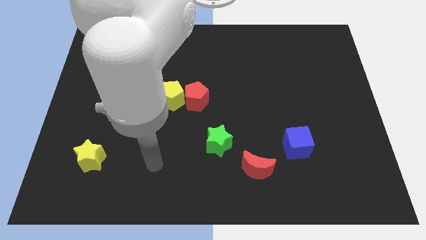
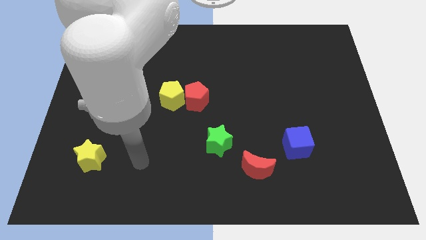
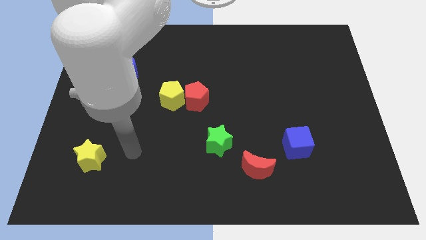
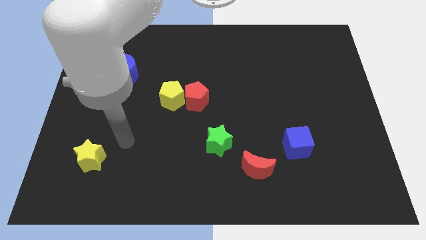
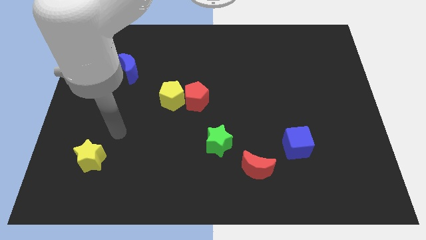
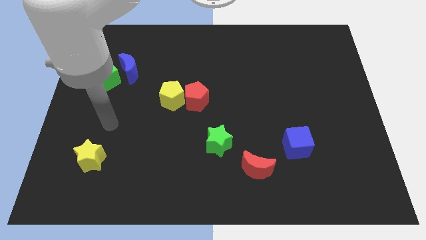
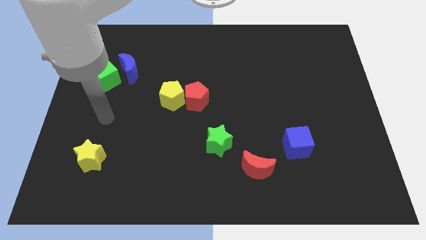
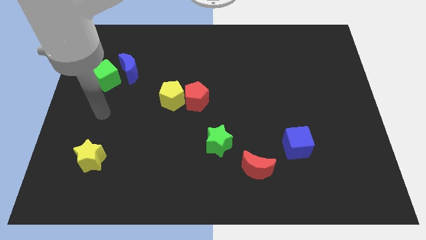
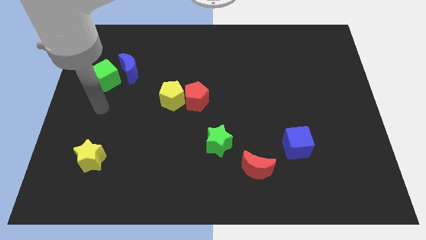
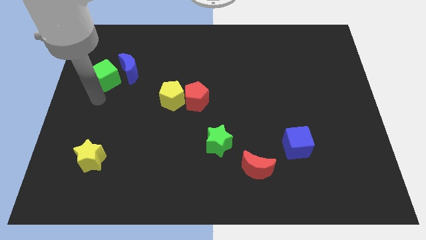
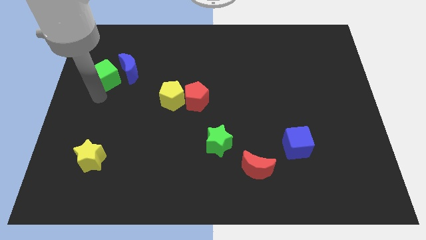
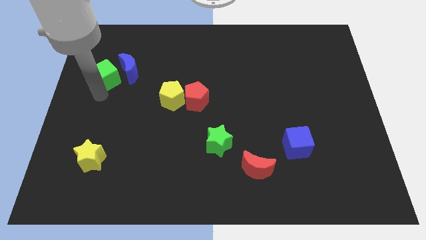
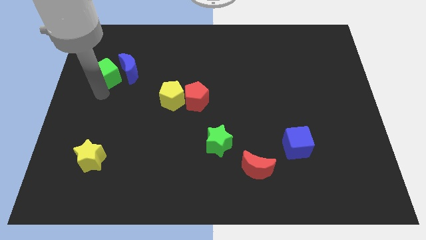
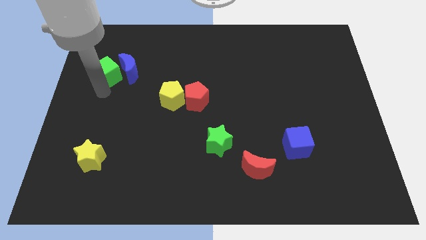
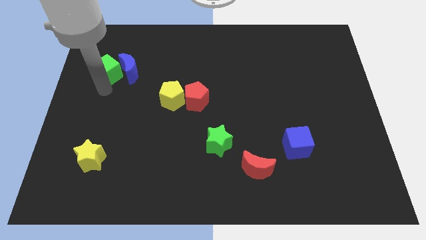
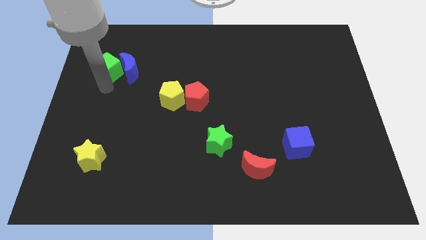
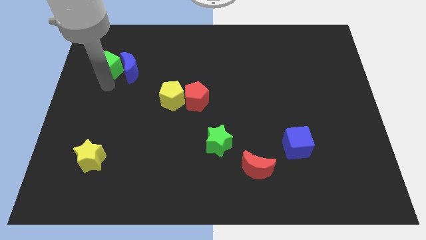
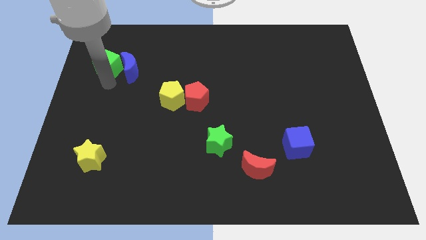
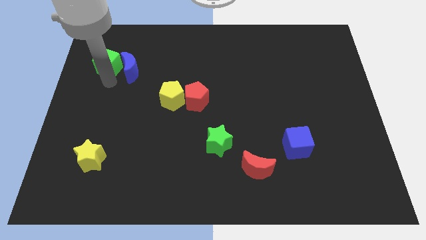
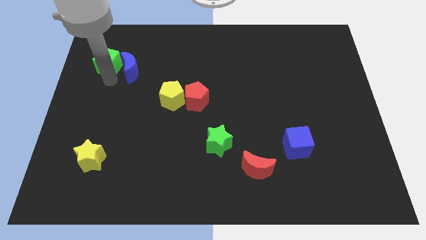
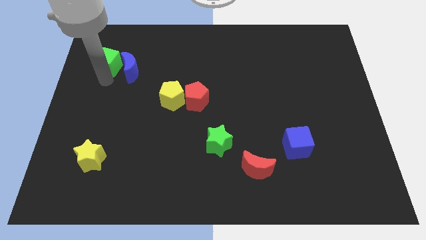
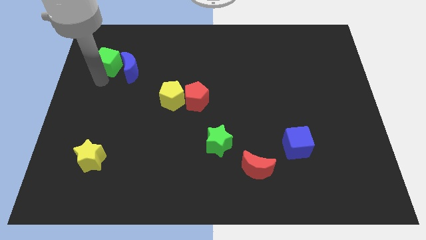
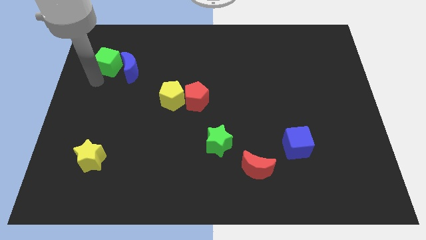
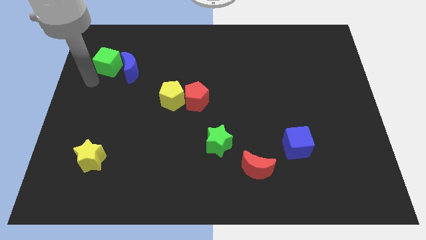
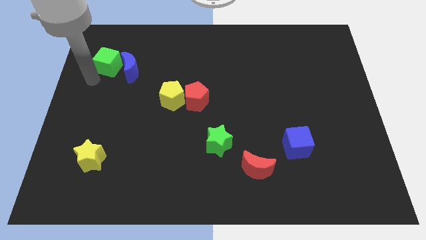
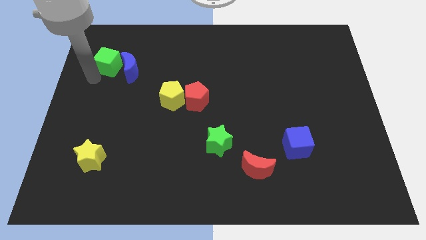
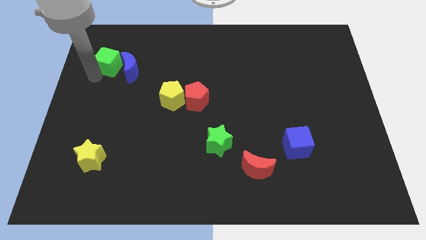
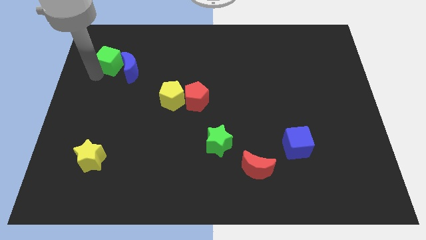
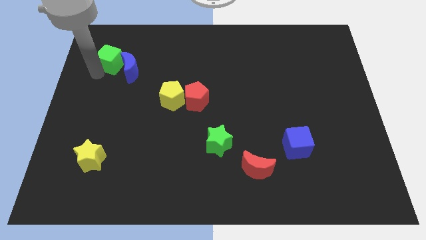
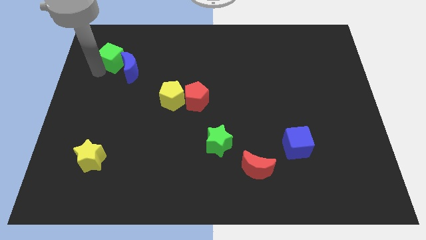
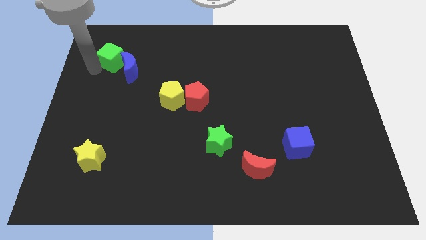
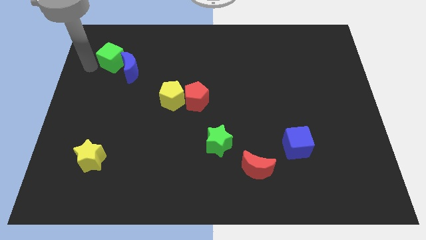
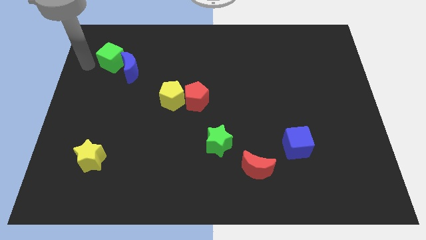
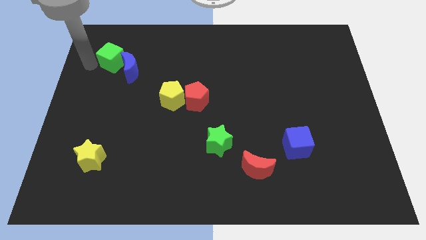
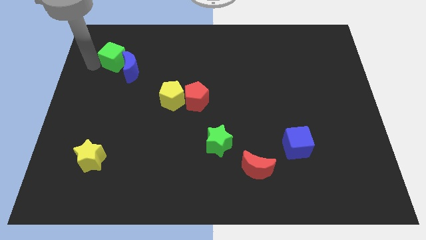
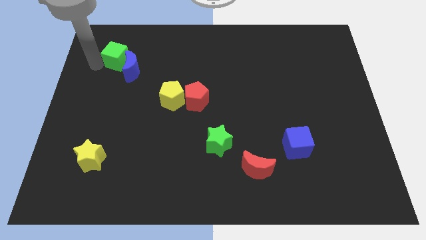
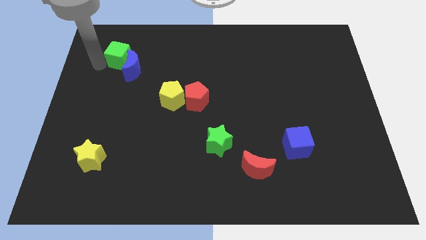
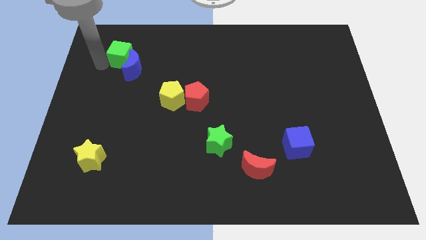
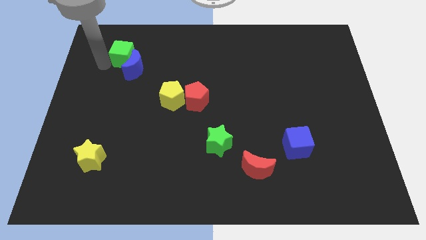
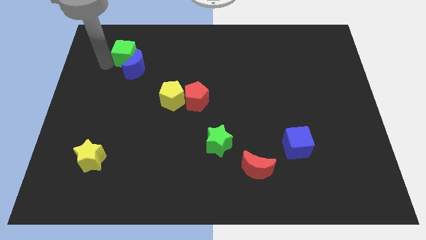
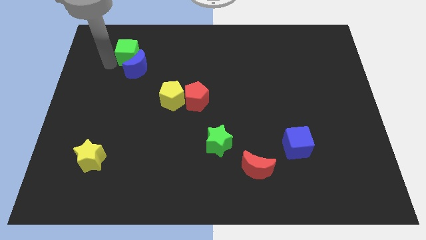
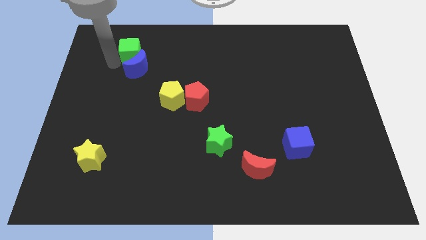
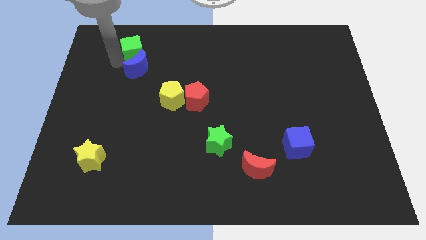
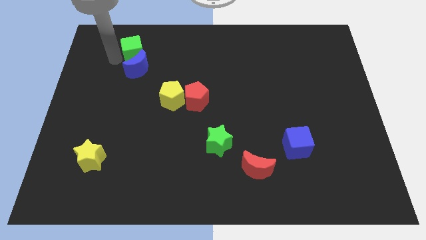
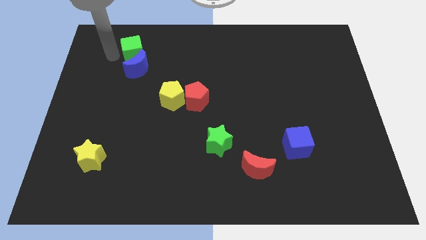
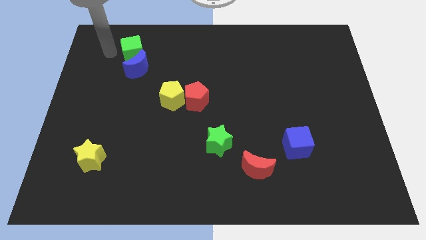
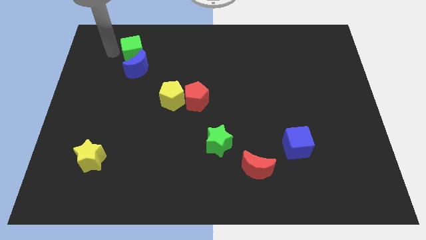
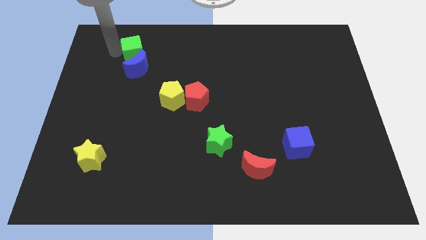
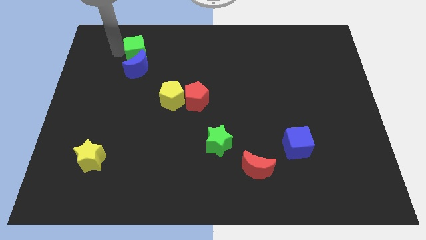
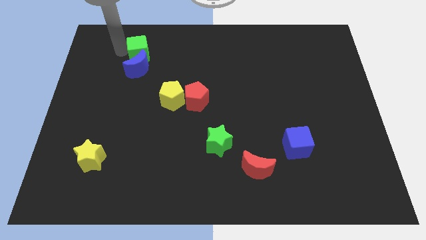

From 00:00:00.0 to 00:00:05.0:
push the green cube to the top right of the blue moon

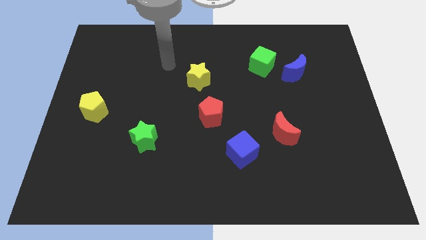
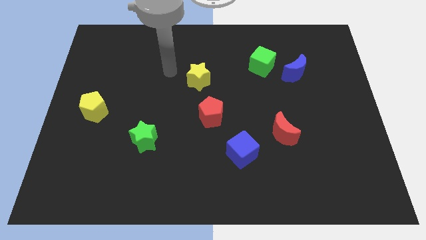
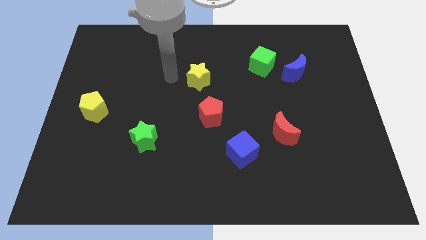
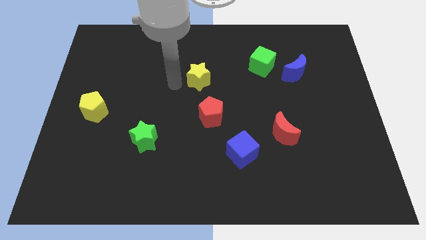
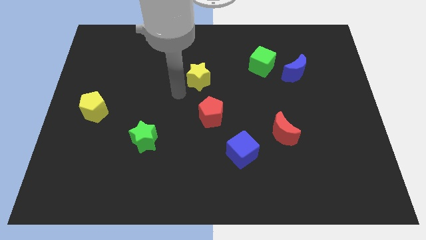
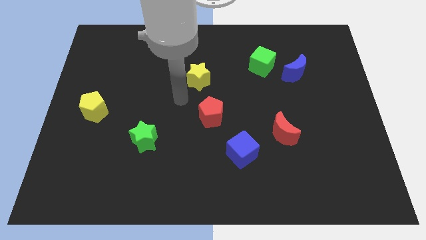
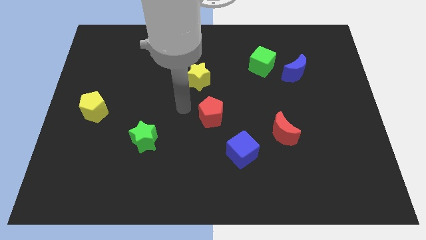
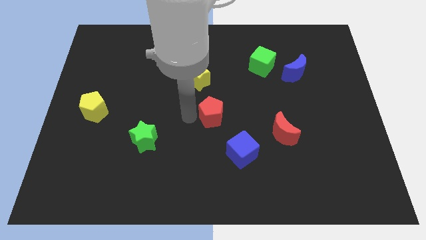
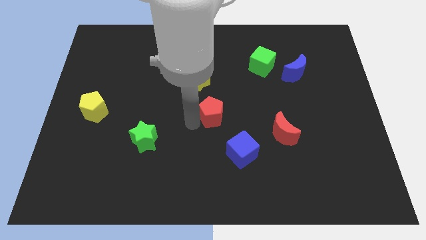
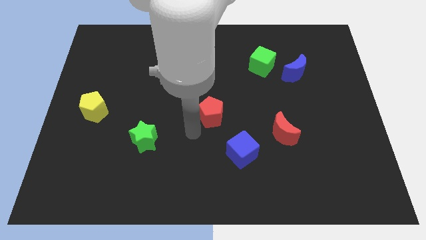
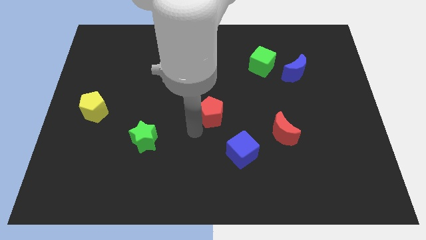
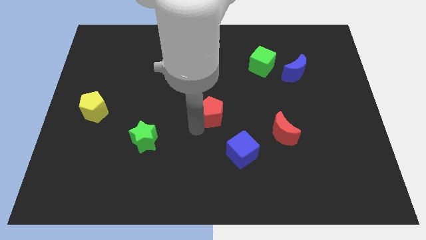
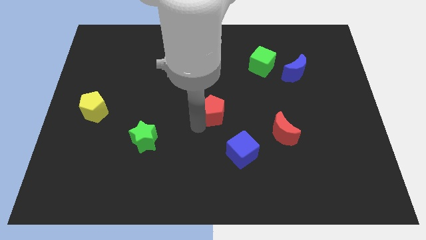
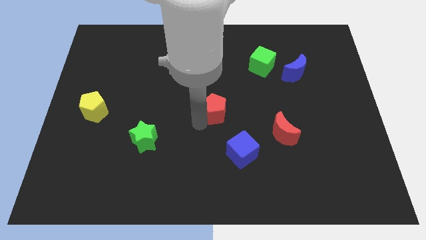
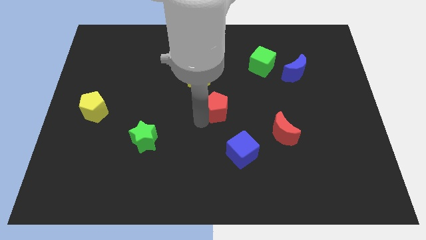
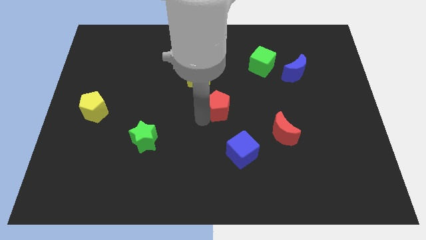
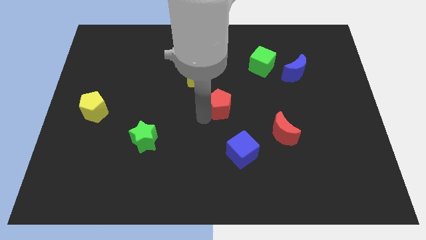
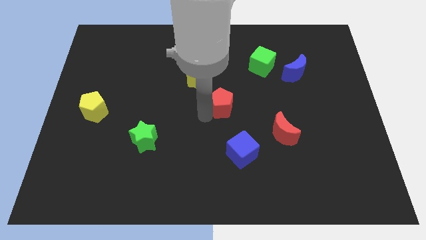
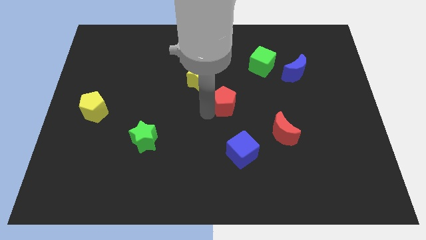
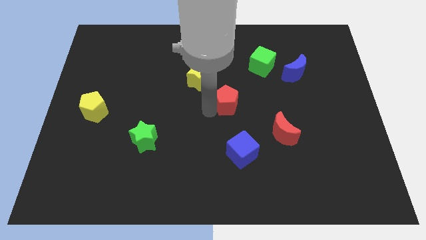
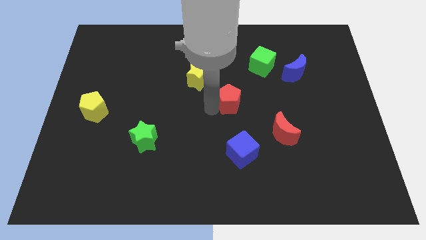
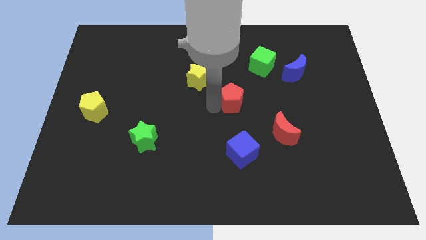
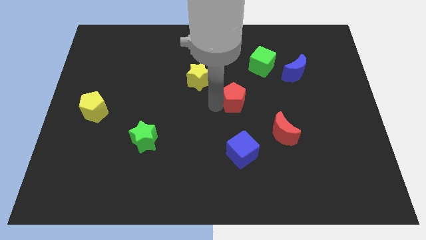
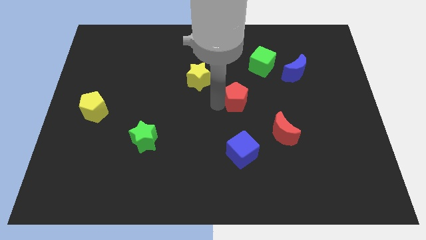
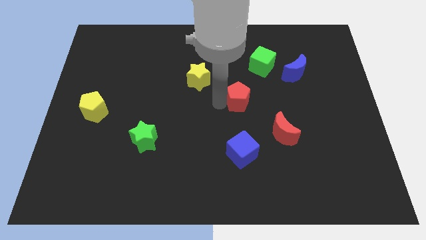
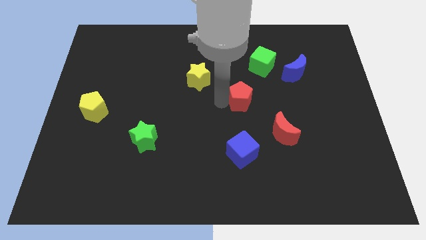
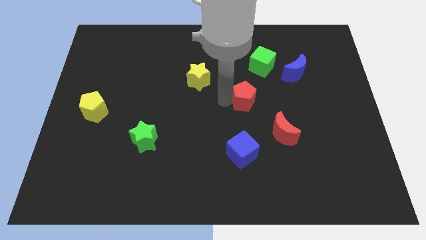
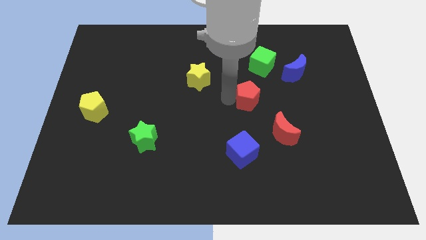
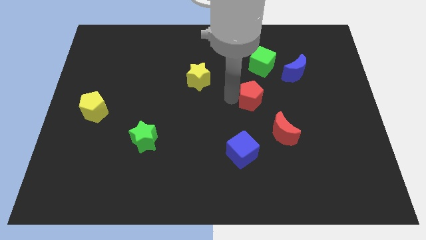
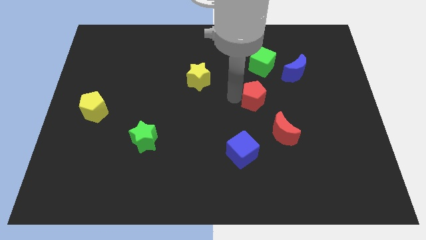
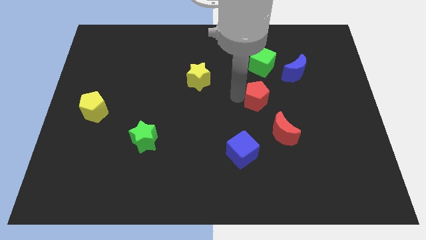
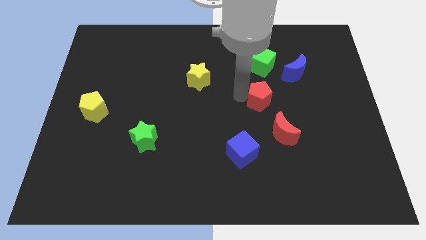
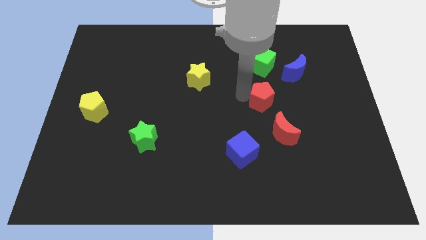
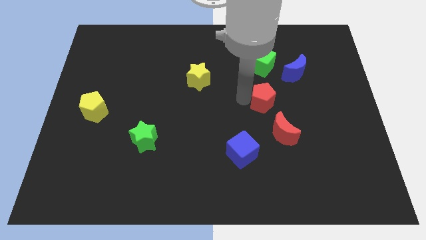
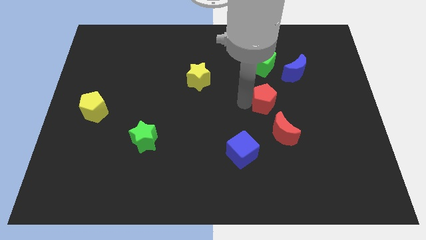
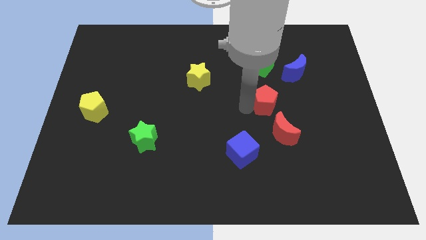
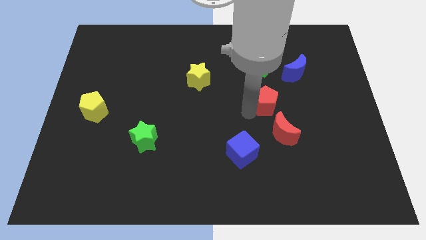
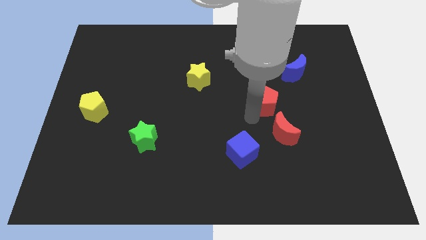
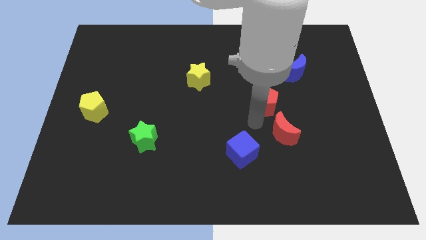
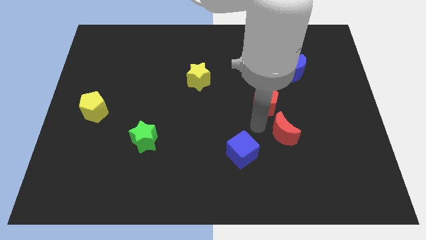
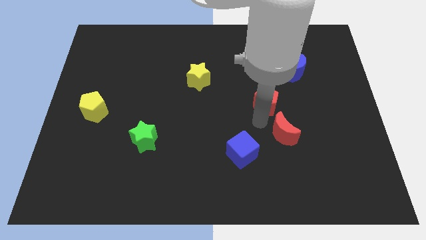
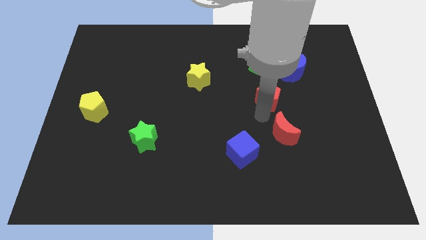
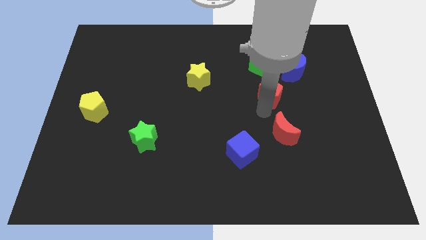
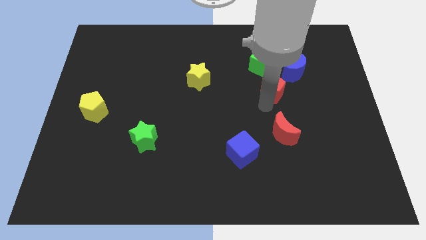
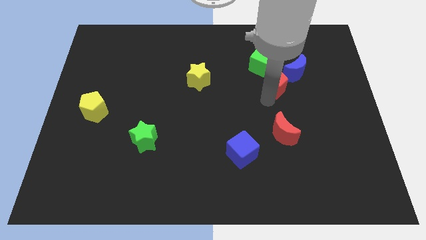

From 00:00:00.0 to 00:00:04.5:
push the red pentagon diagonally down and to the right of the green cube
